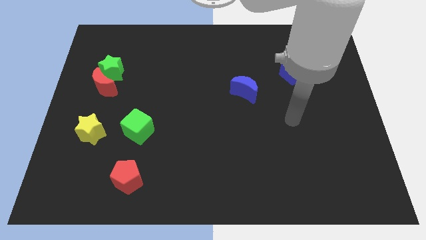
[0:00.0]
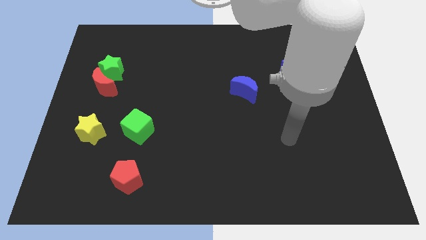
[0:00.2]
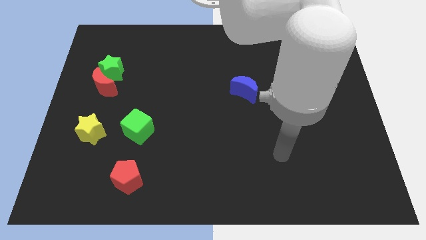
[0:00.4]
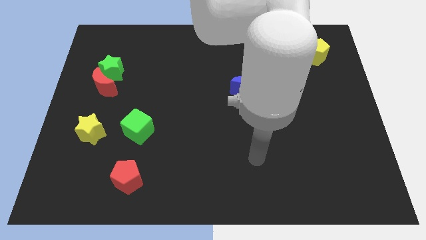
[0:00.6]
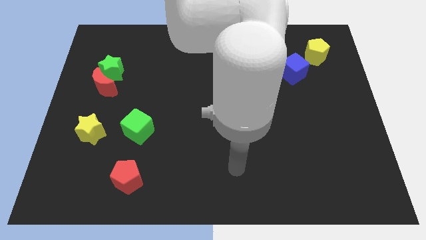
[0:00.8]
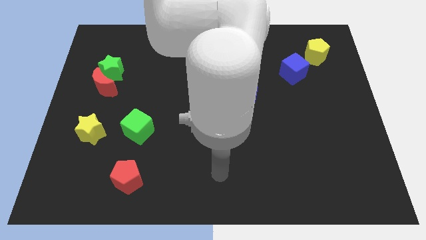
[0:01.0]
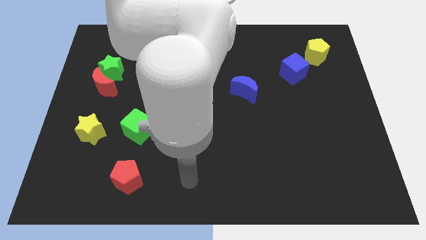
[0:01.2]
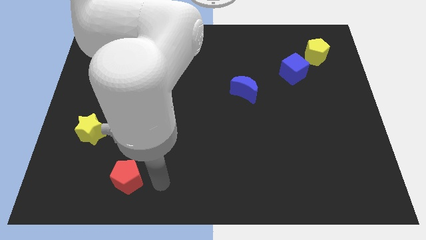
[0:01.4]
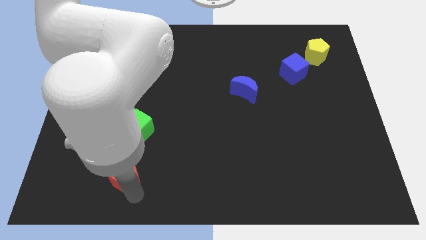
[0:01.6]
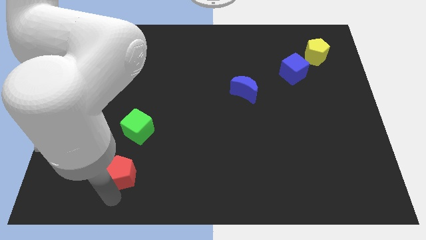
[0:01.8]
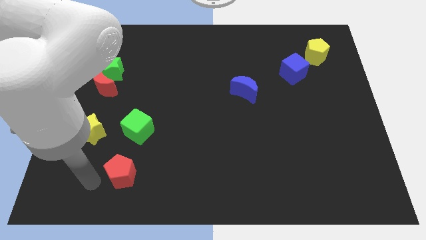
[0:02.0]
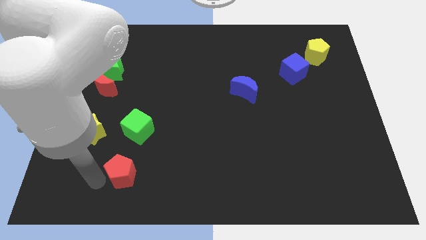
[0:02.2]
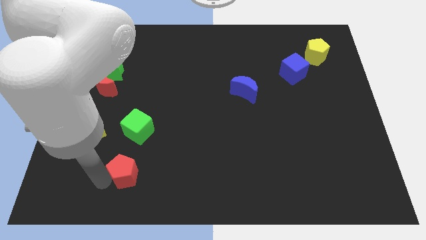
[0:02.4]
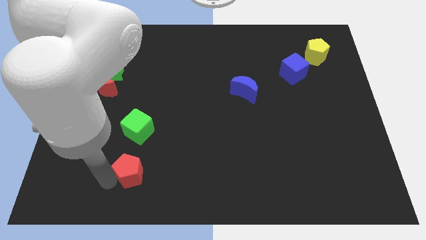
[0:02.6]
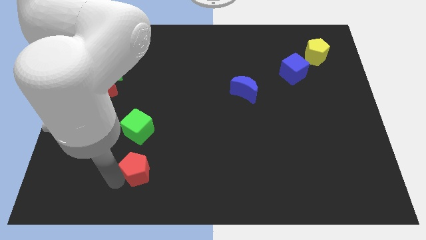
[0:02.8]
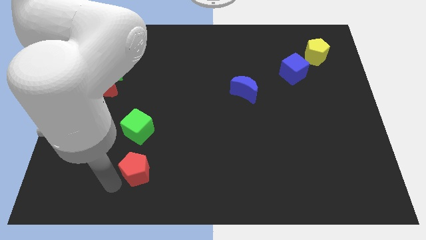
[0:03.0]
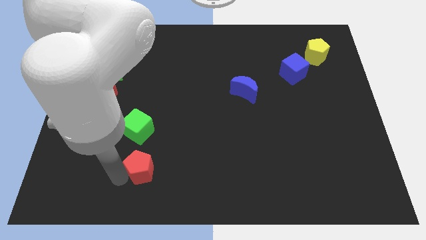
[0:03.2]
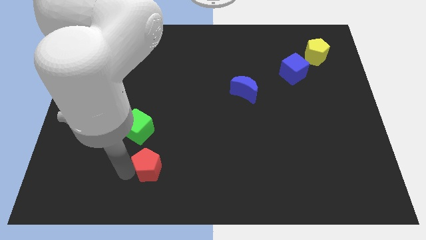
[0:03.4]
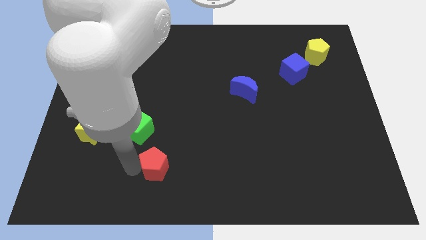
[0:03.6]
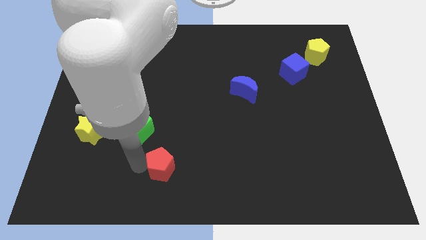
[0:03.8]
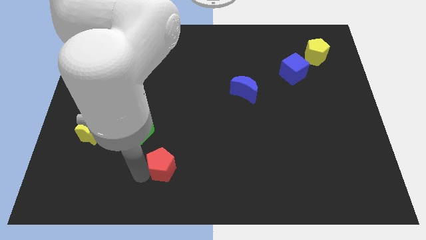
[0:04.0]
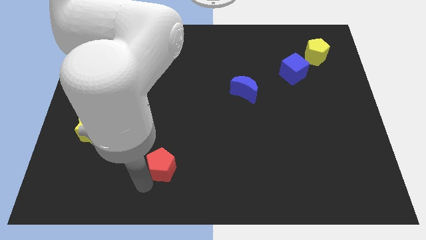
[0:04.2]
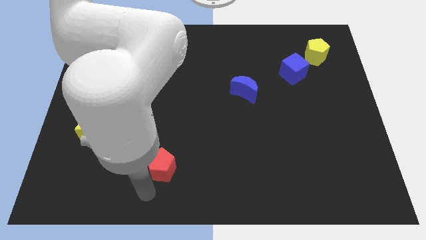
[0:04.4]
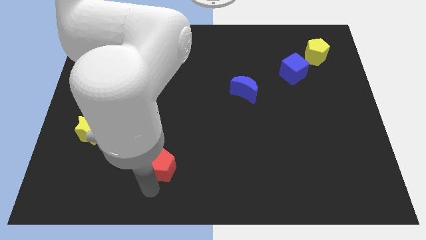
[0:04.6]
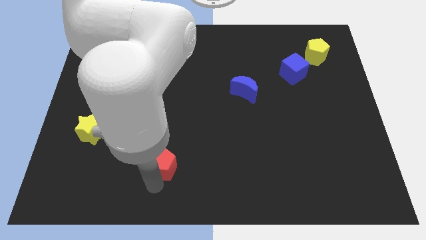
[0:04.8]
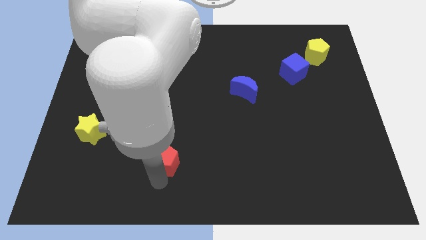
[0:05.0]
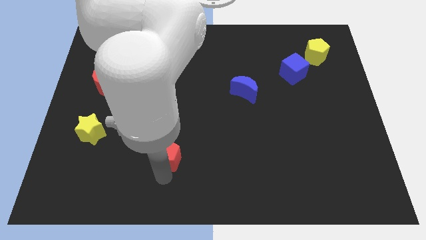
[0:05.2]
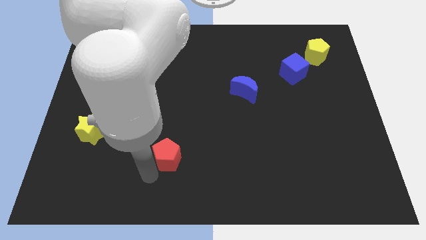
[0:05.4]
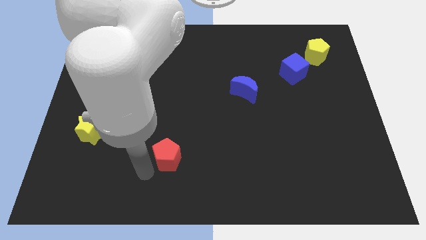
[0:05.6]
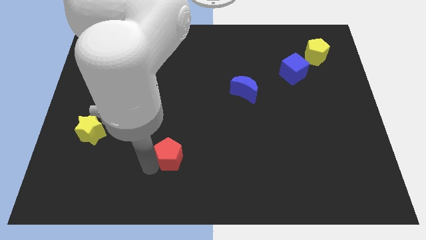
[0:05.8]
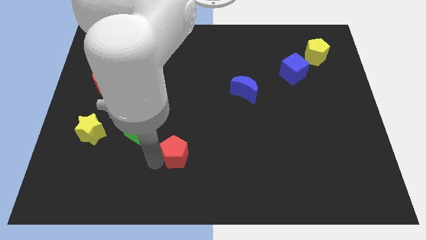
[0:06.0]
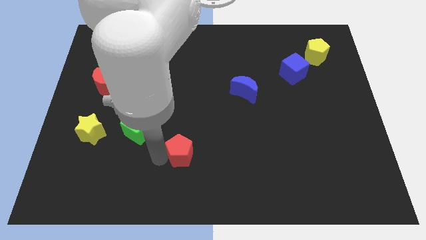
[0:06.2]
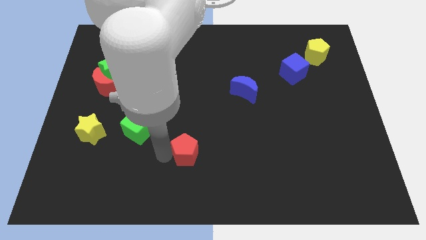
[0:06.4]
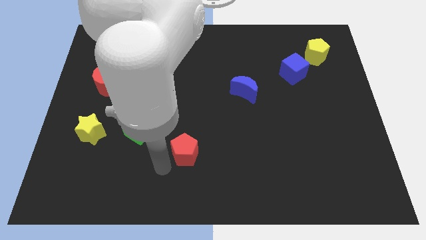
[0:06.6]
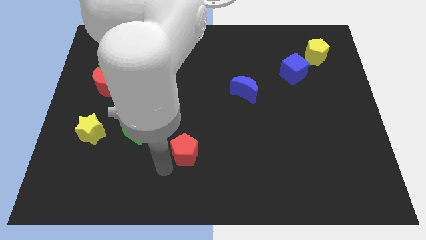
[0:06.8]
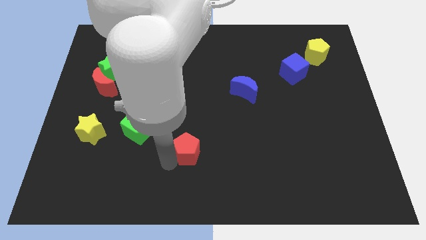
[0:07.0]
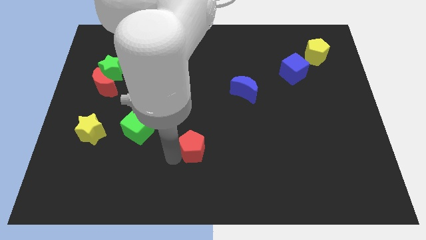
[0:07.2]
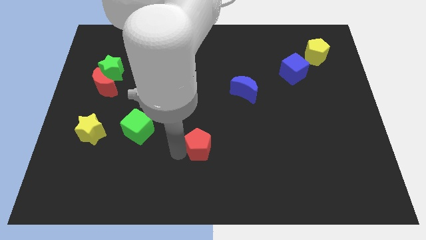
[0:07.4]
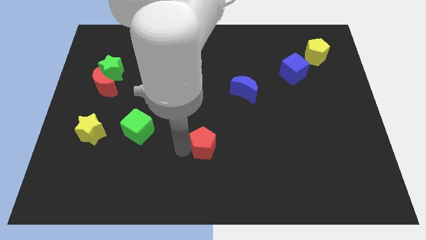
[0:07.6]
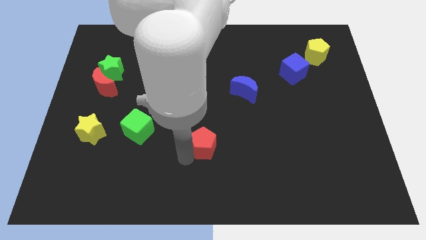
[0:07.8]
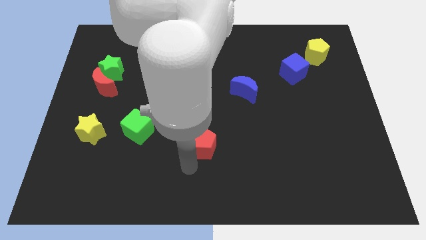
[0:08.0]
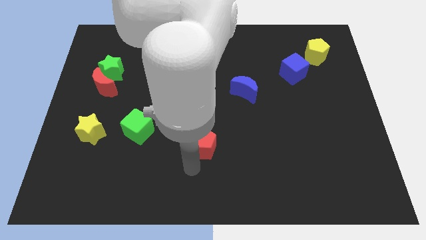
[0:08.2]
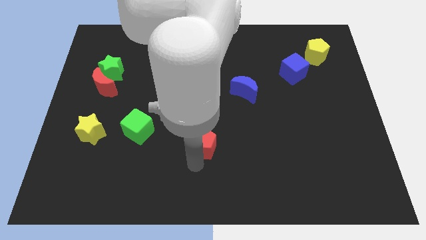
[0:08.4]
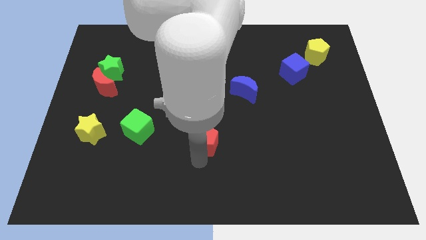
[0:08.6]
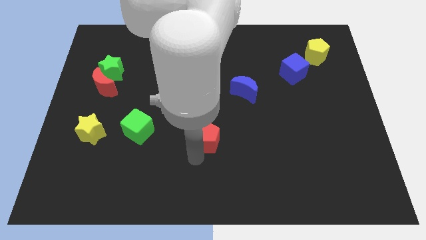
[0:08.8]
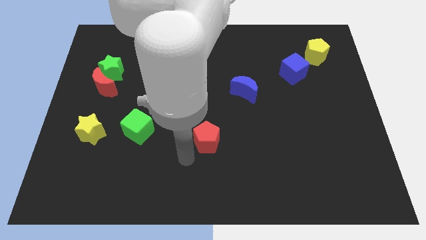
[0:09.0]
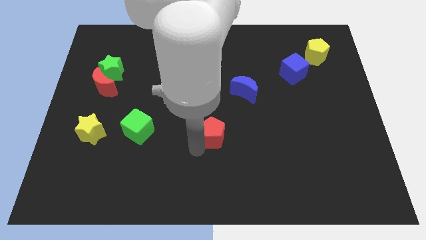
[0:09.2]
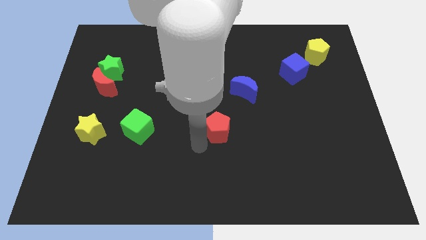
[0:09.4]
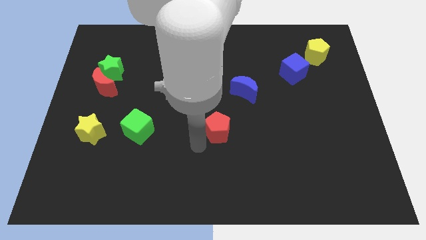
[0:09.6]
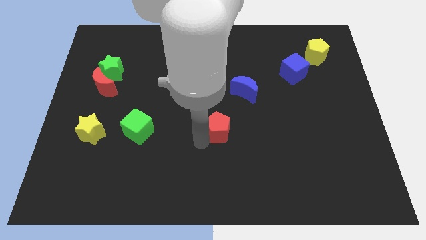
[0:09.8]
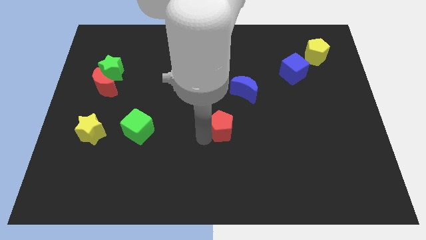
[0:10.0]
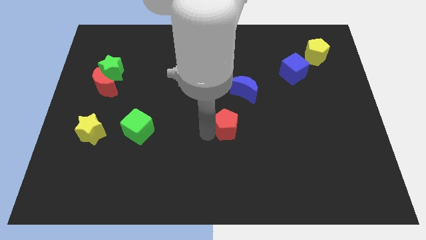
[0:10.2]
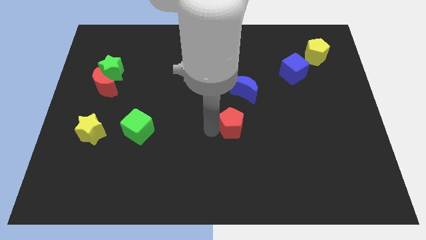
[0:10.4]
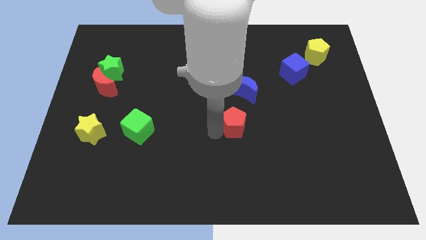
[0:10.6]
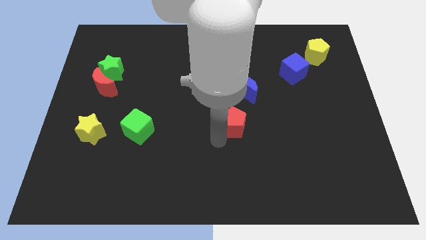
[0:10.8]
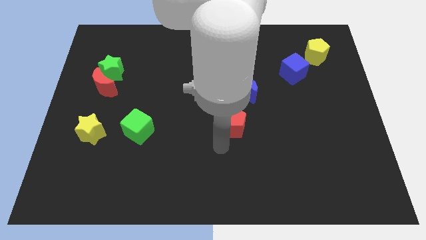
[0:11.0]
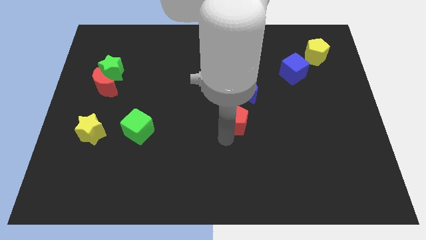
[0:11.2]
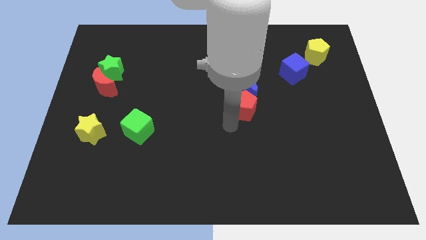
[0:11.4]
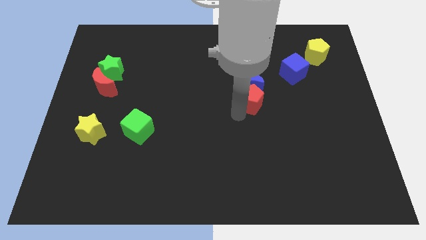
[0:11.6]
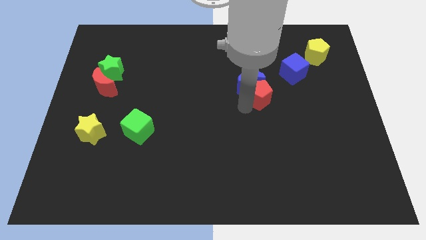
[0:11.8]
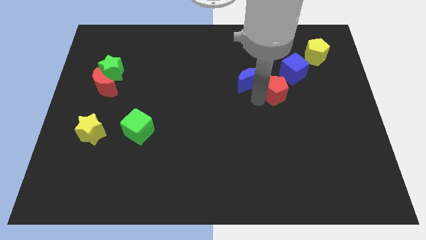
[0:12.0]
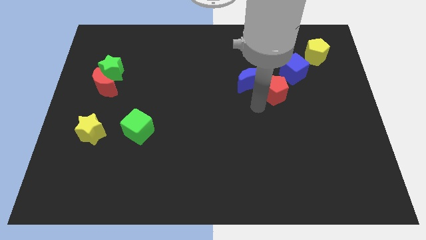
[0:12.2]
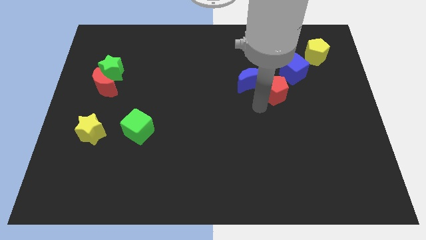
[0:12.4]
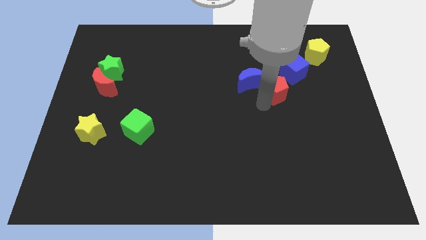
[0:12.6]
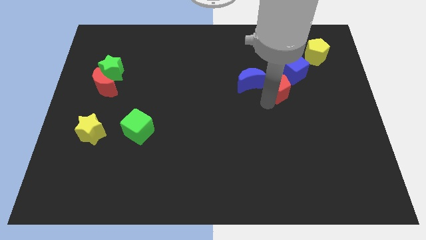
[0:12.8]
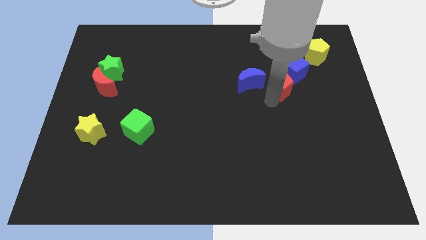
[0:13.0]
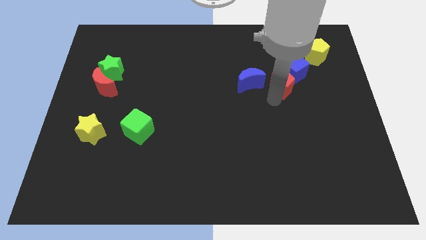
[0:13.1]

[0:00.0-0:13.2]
move the red pentagon close to the blue cube

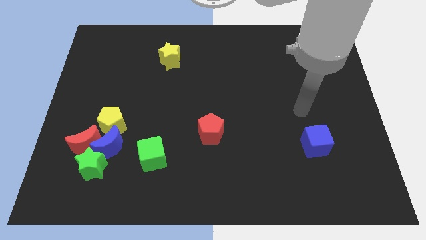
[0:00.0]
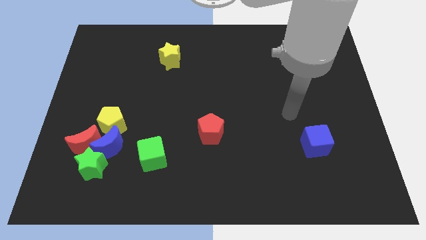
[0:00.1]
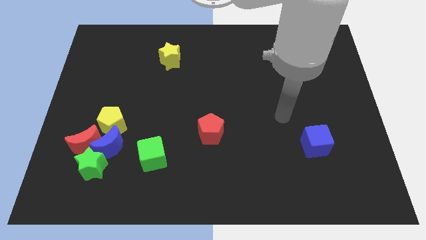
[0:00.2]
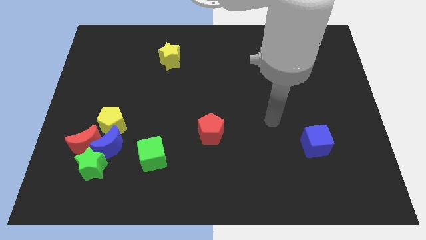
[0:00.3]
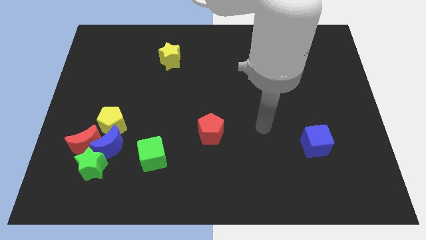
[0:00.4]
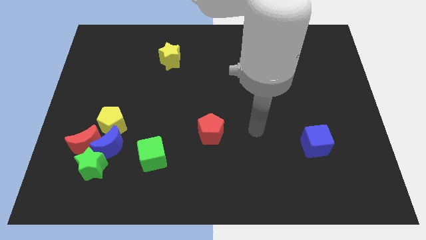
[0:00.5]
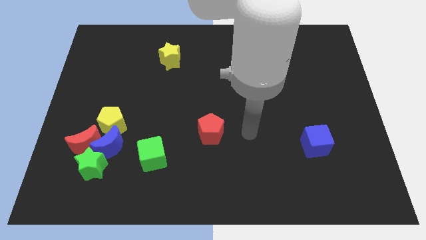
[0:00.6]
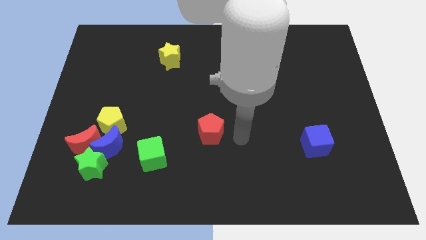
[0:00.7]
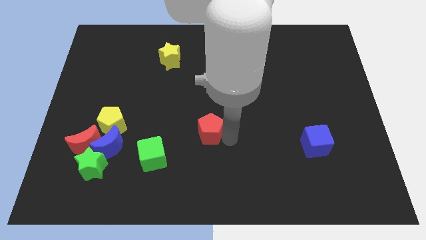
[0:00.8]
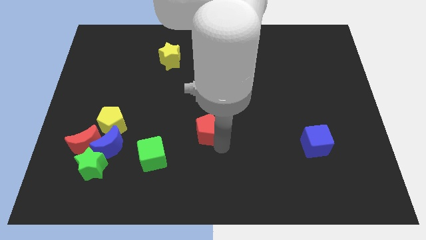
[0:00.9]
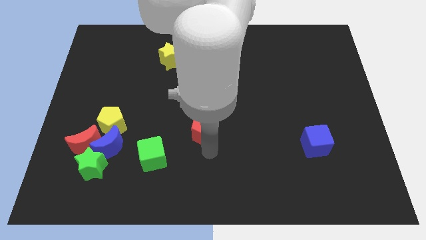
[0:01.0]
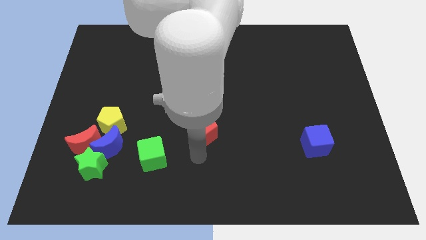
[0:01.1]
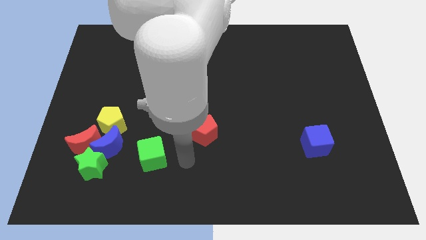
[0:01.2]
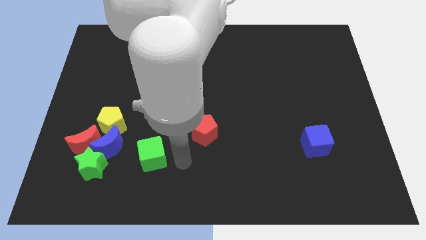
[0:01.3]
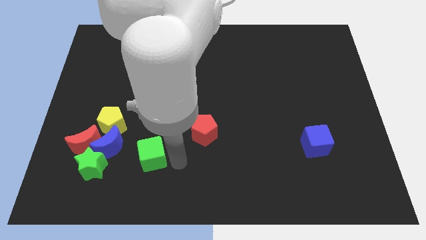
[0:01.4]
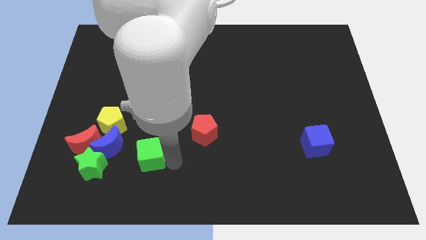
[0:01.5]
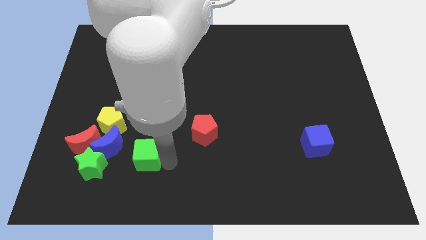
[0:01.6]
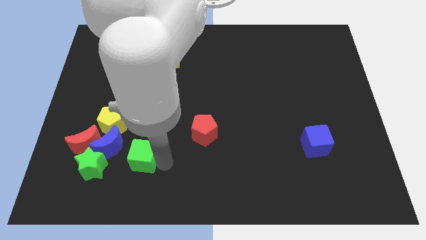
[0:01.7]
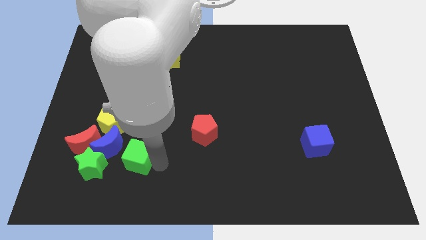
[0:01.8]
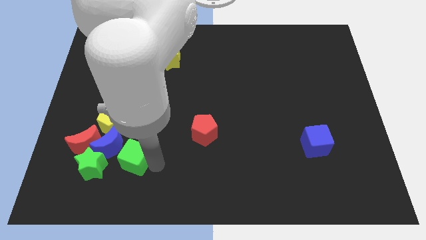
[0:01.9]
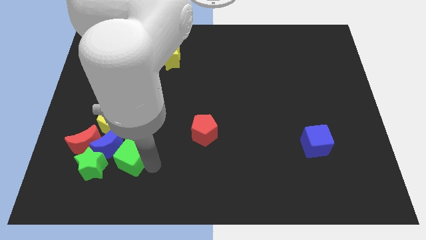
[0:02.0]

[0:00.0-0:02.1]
push the green cube next to the blue moon
